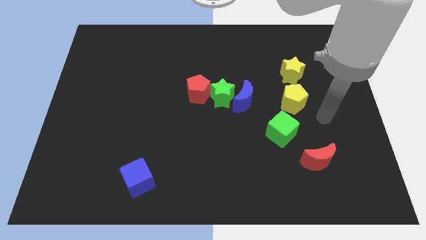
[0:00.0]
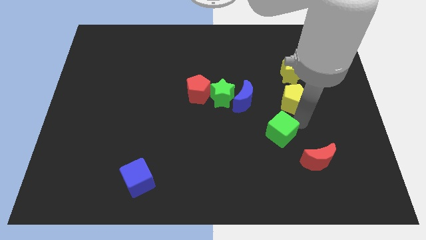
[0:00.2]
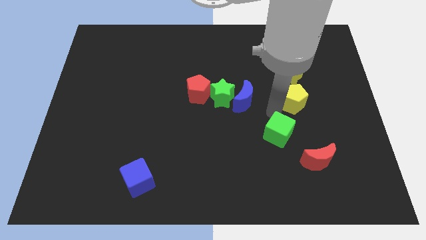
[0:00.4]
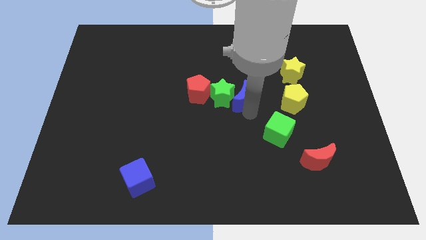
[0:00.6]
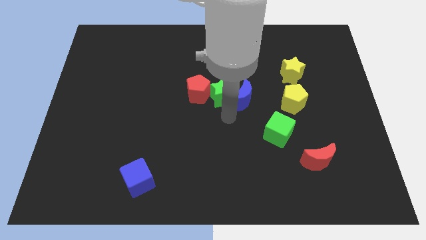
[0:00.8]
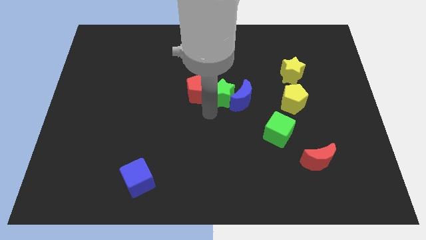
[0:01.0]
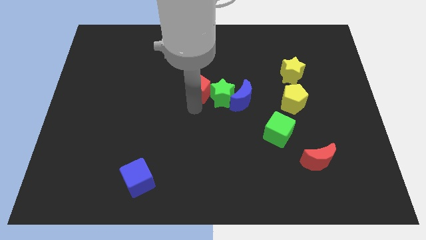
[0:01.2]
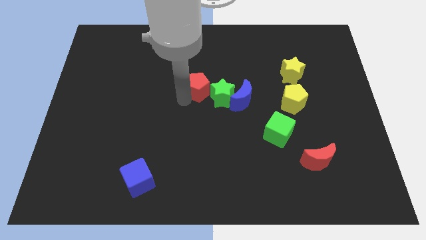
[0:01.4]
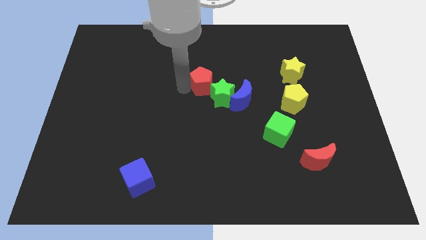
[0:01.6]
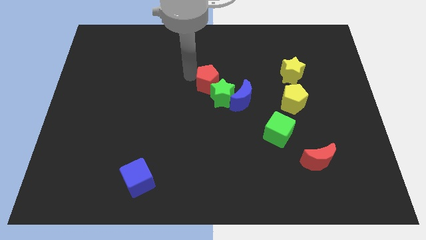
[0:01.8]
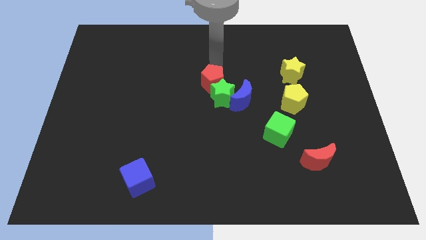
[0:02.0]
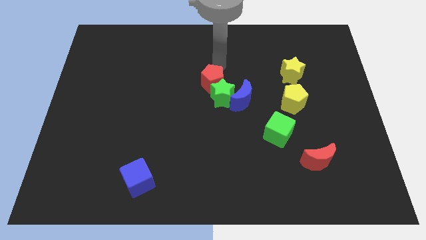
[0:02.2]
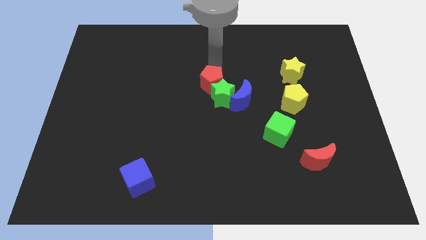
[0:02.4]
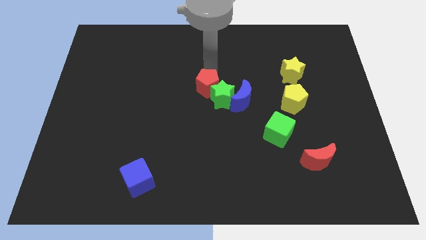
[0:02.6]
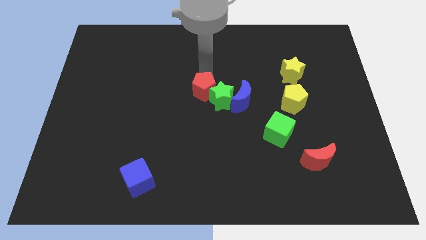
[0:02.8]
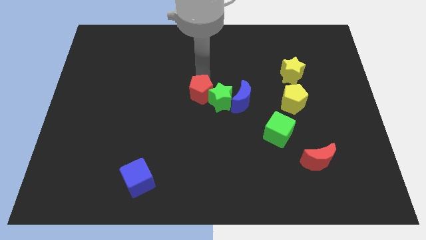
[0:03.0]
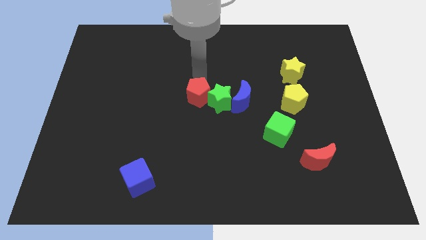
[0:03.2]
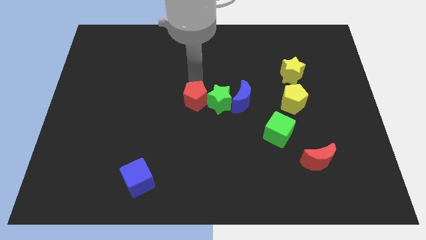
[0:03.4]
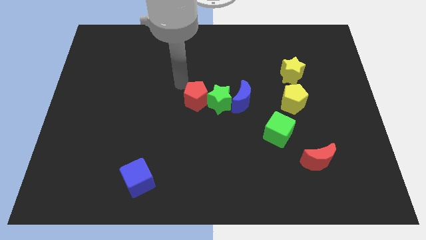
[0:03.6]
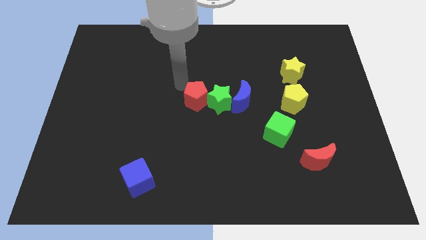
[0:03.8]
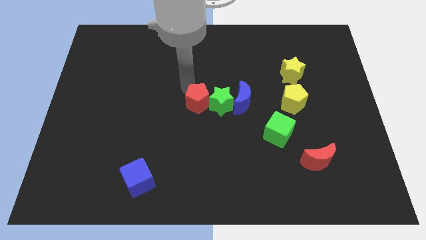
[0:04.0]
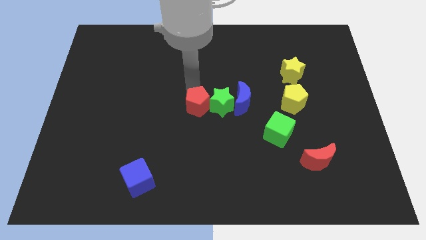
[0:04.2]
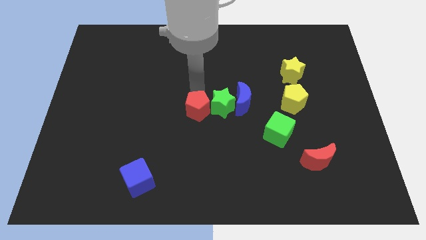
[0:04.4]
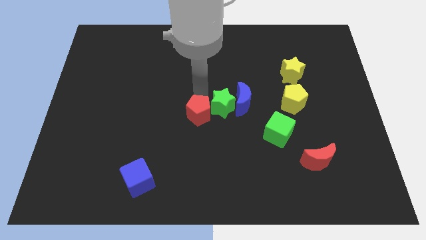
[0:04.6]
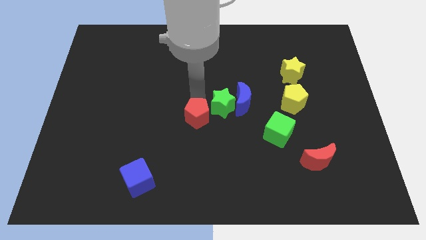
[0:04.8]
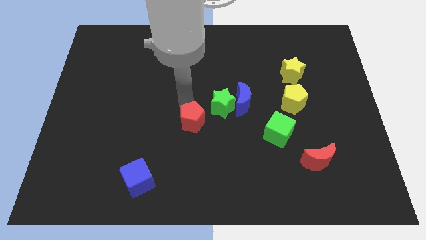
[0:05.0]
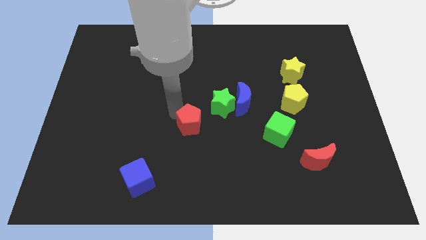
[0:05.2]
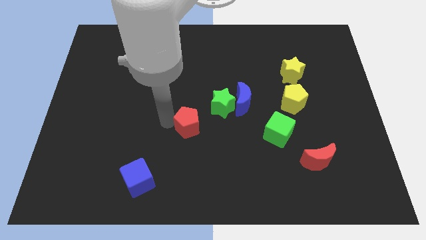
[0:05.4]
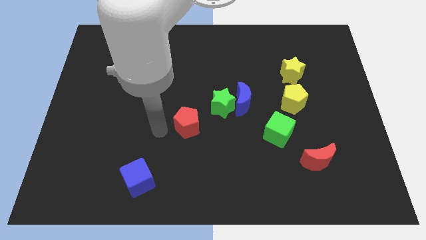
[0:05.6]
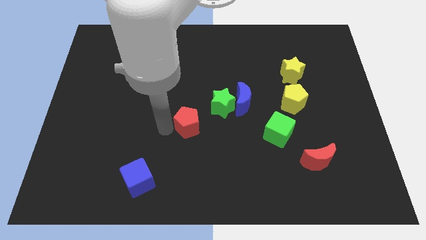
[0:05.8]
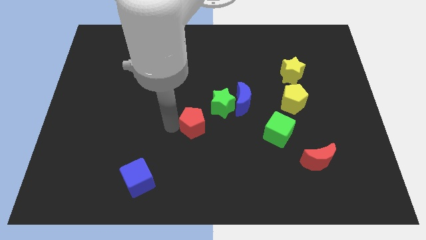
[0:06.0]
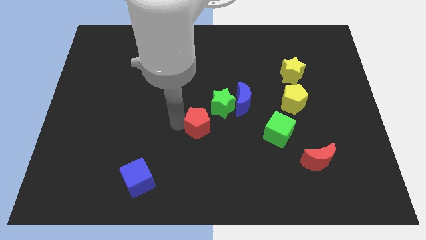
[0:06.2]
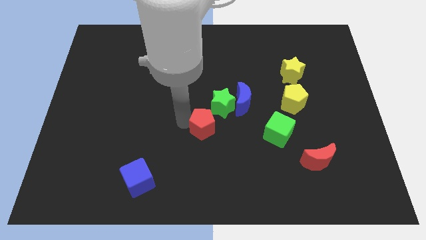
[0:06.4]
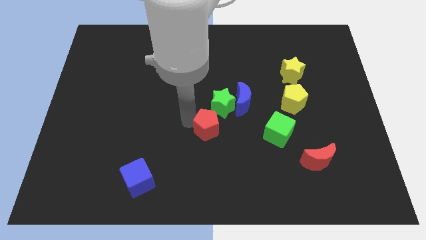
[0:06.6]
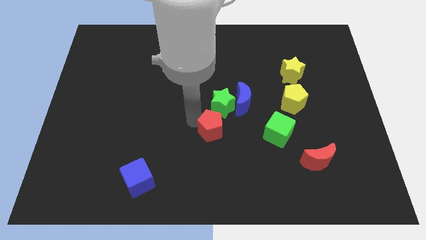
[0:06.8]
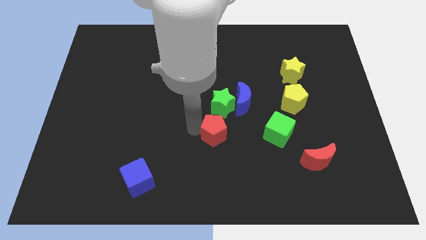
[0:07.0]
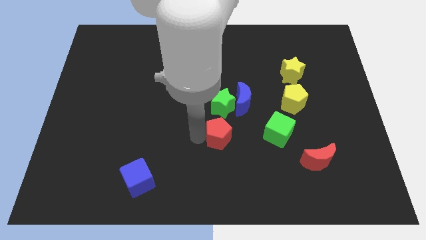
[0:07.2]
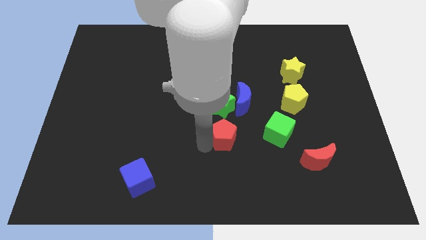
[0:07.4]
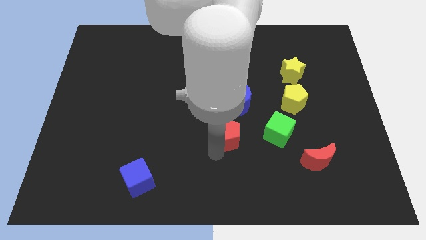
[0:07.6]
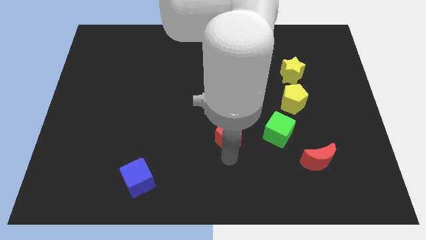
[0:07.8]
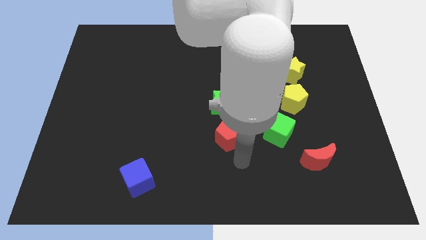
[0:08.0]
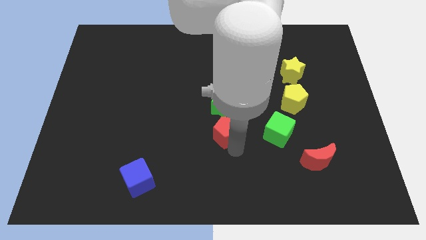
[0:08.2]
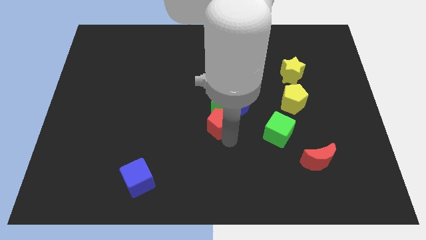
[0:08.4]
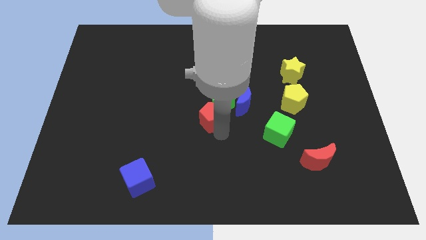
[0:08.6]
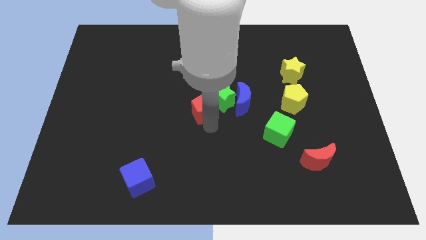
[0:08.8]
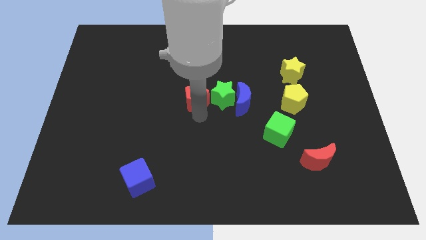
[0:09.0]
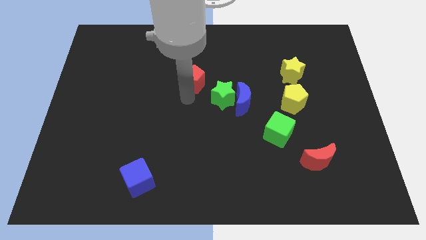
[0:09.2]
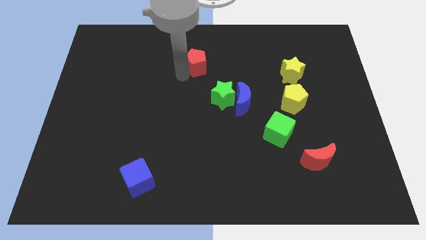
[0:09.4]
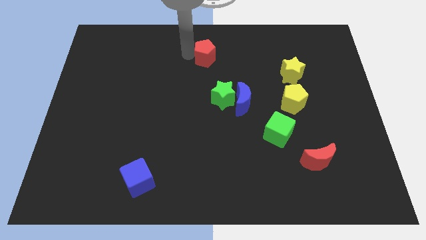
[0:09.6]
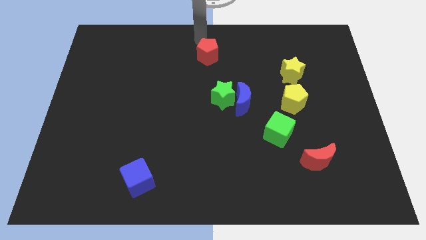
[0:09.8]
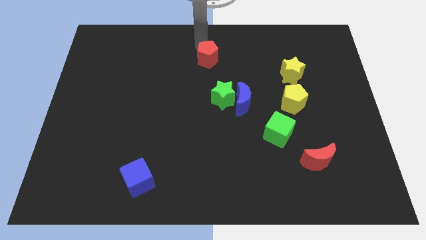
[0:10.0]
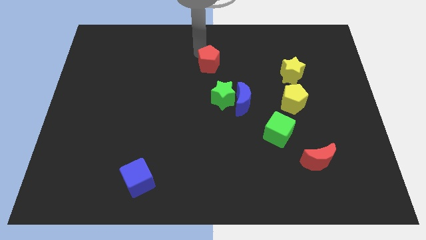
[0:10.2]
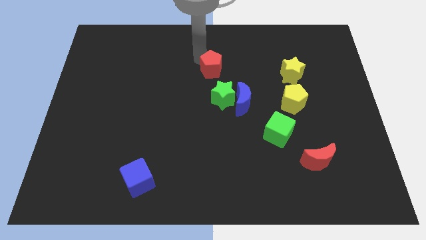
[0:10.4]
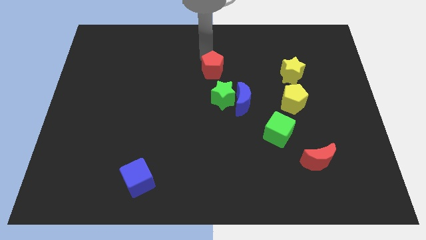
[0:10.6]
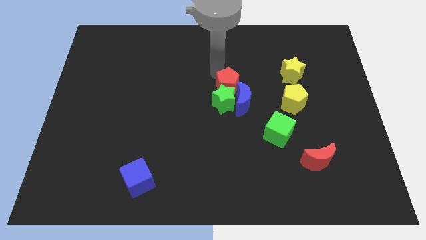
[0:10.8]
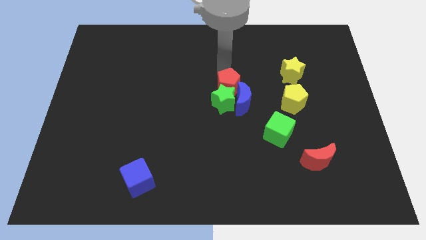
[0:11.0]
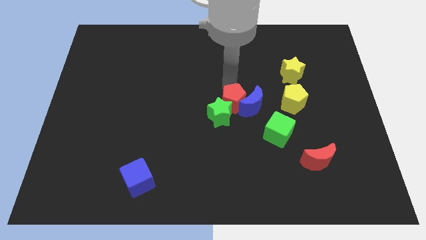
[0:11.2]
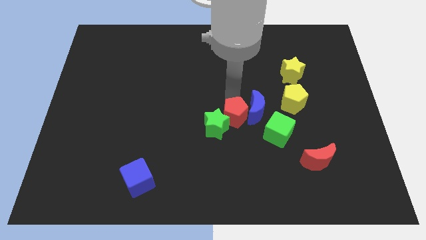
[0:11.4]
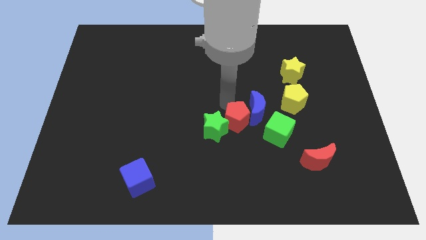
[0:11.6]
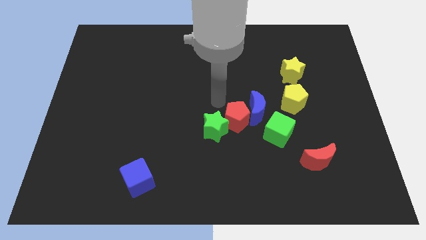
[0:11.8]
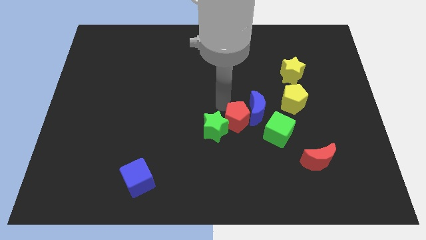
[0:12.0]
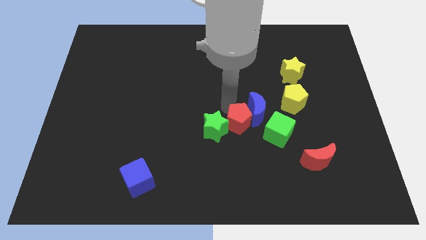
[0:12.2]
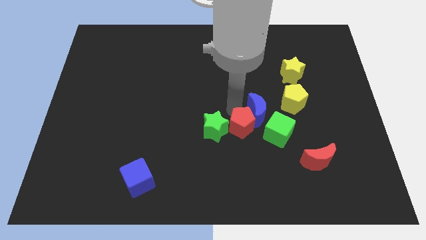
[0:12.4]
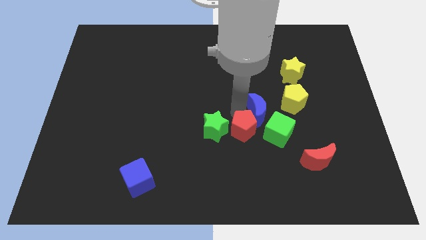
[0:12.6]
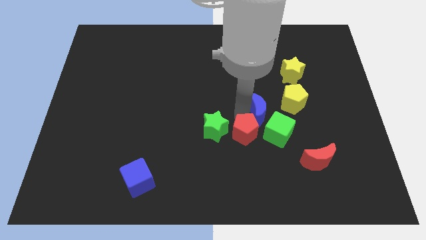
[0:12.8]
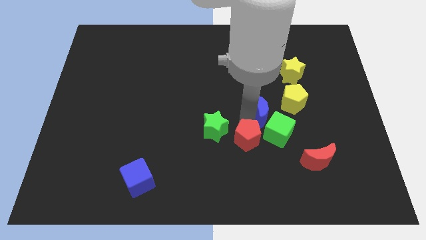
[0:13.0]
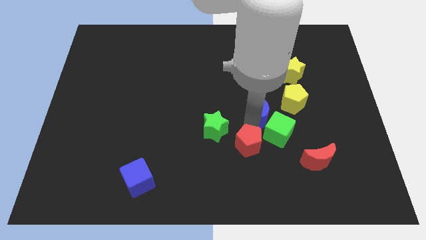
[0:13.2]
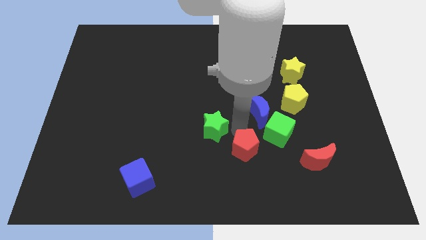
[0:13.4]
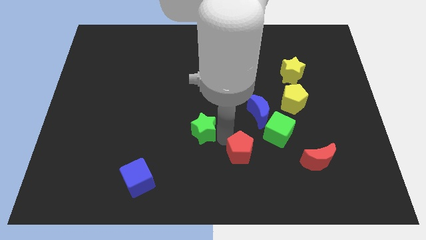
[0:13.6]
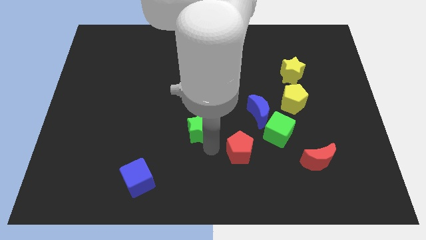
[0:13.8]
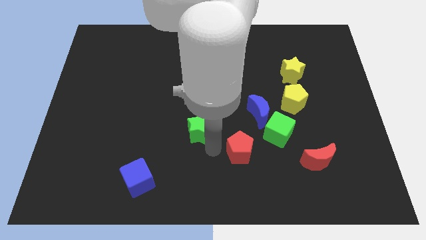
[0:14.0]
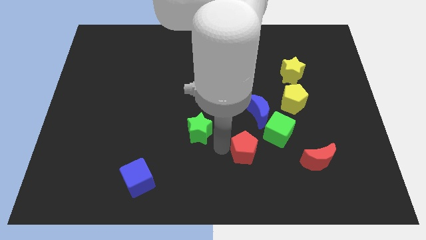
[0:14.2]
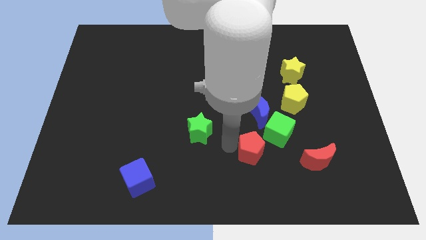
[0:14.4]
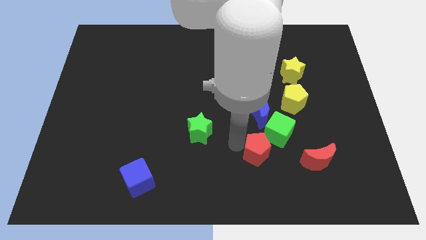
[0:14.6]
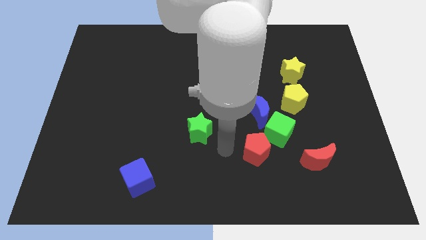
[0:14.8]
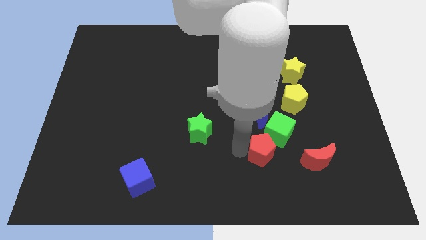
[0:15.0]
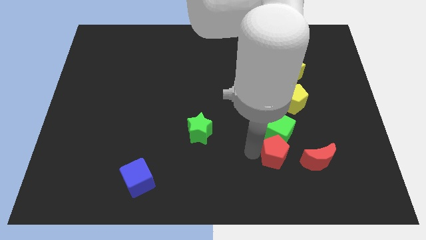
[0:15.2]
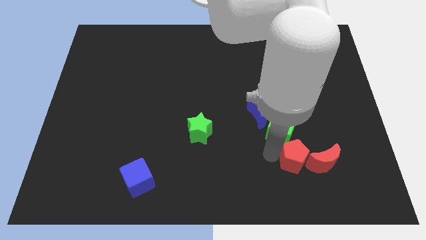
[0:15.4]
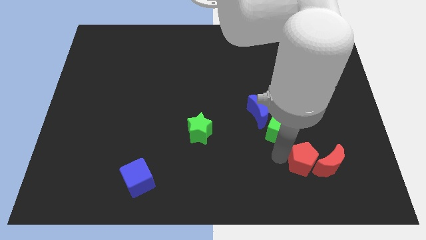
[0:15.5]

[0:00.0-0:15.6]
move the red pentagon to the red moon
